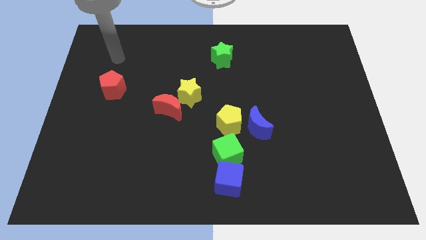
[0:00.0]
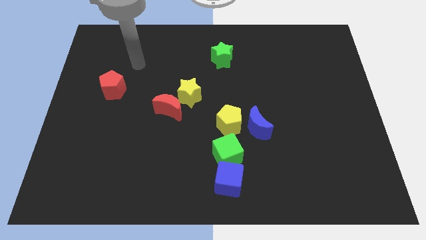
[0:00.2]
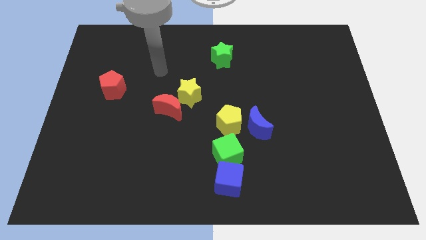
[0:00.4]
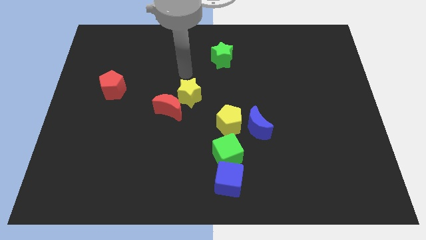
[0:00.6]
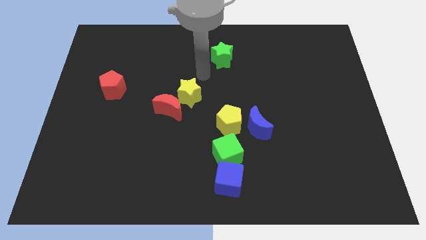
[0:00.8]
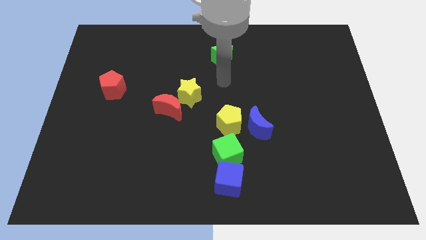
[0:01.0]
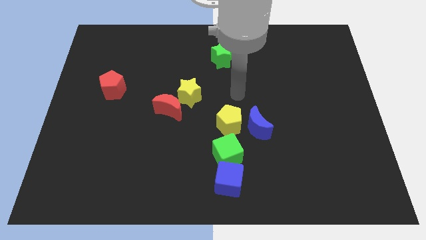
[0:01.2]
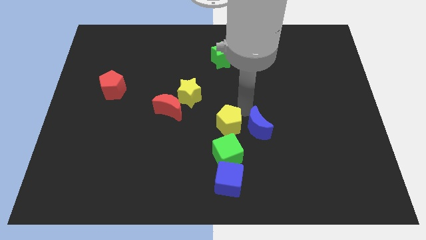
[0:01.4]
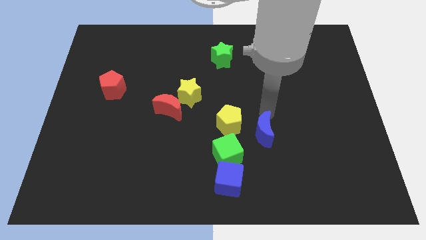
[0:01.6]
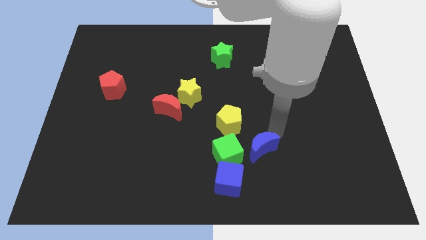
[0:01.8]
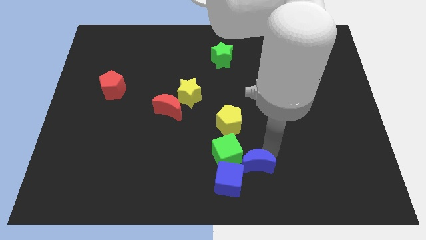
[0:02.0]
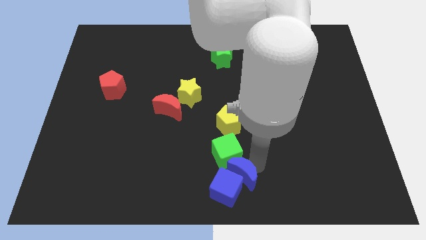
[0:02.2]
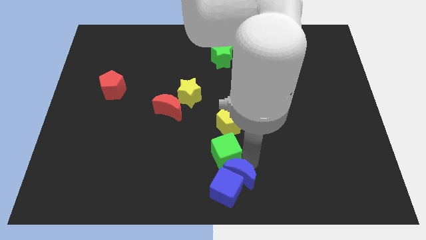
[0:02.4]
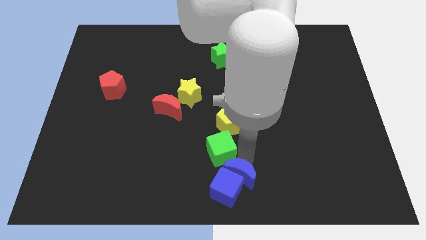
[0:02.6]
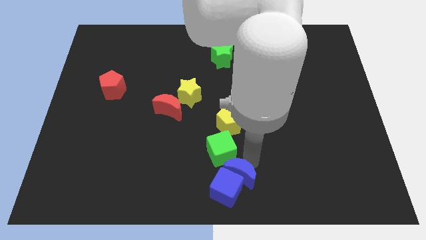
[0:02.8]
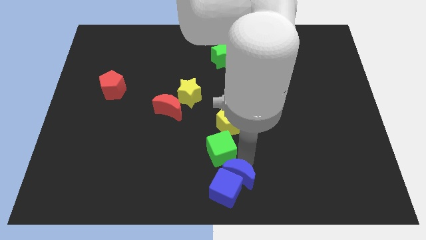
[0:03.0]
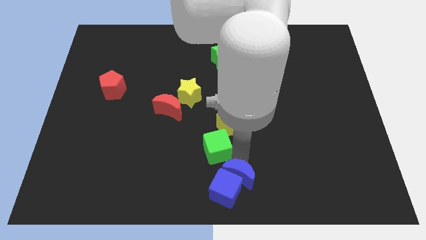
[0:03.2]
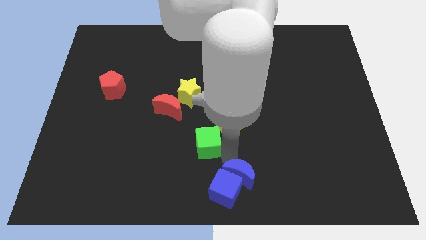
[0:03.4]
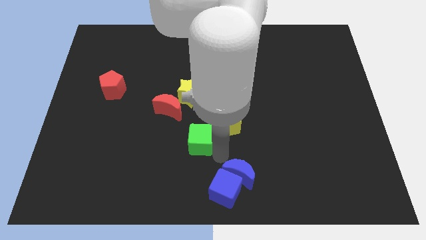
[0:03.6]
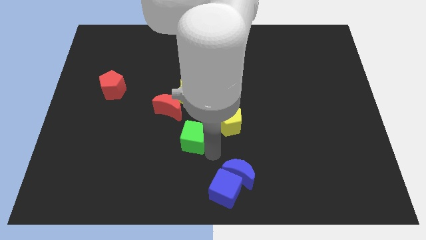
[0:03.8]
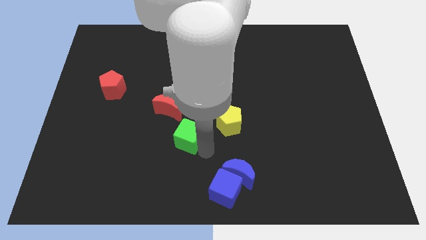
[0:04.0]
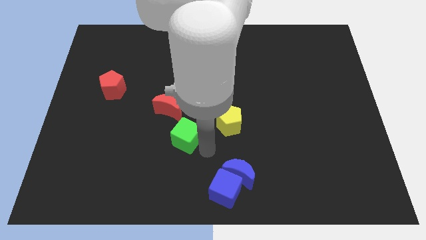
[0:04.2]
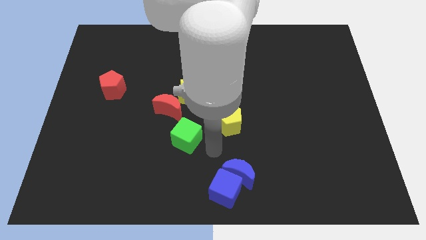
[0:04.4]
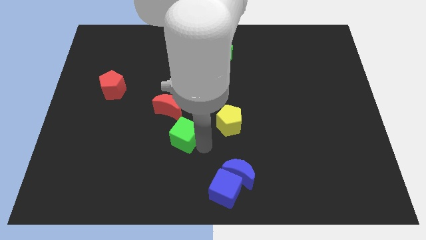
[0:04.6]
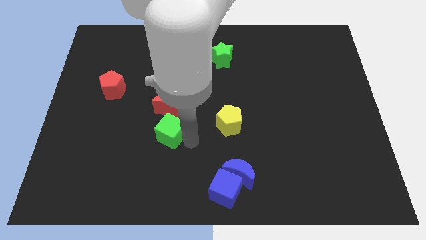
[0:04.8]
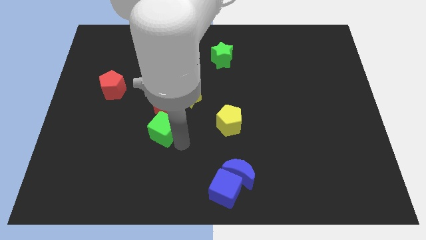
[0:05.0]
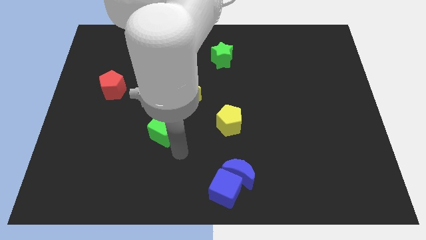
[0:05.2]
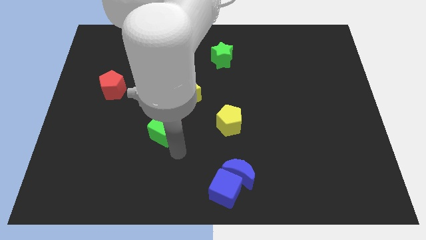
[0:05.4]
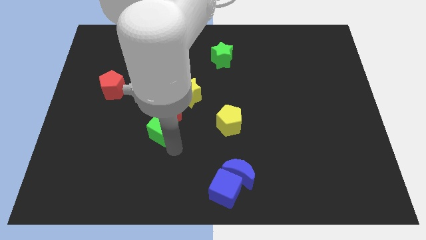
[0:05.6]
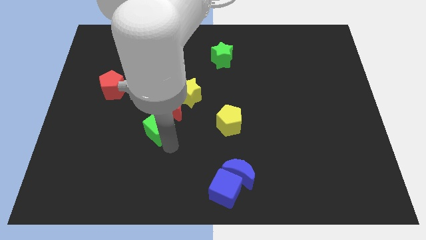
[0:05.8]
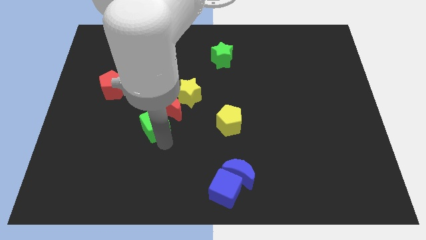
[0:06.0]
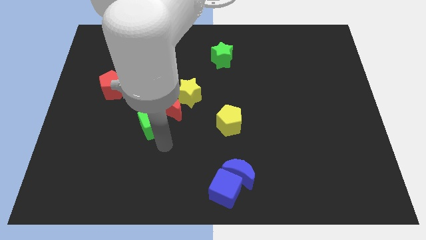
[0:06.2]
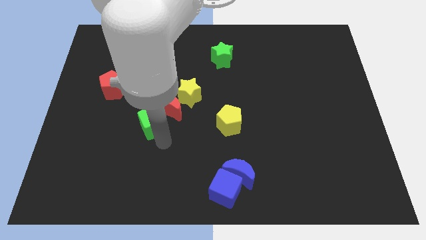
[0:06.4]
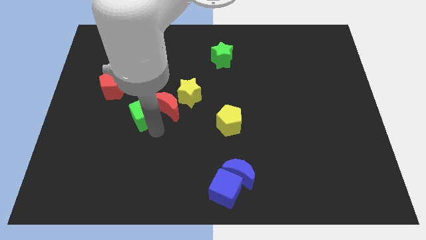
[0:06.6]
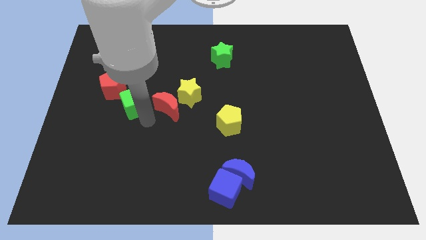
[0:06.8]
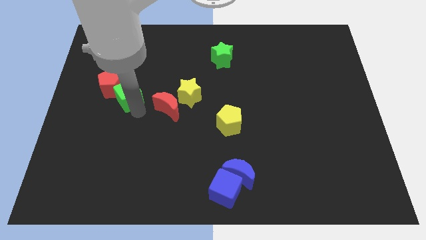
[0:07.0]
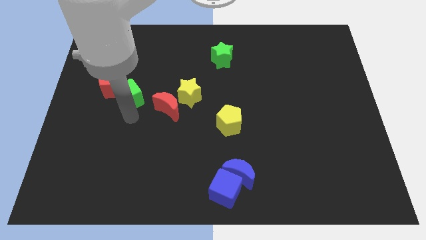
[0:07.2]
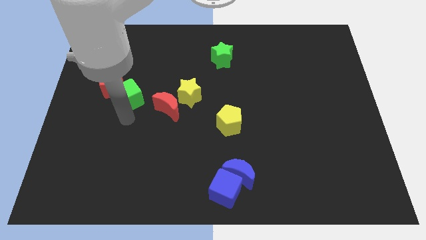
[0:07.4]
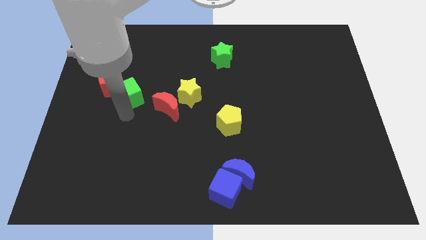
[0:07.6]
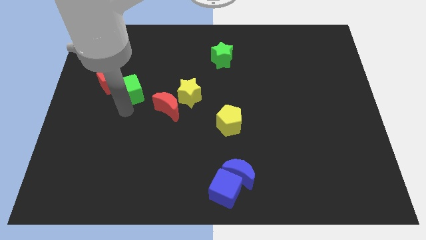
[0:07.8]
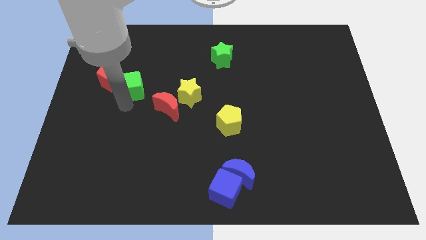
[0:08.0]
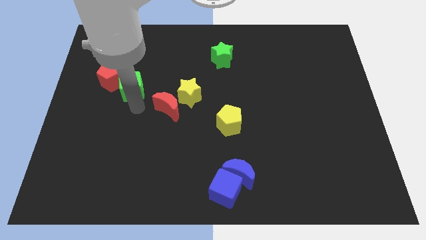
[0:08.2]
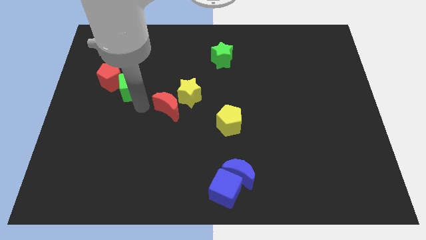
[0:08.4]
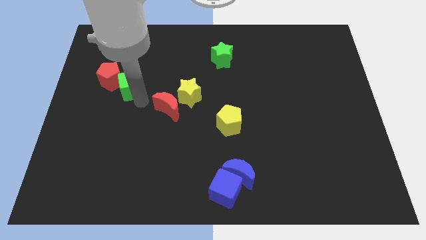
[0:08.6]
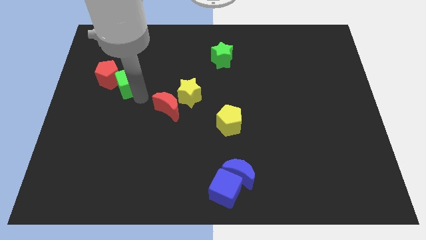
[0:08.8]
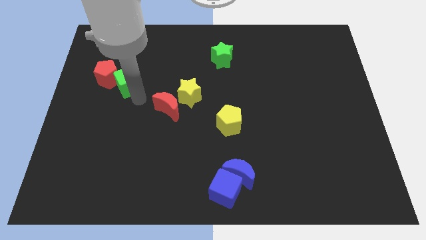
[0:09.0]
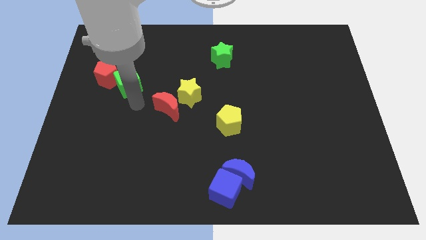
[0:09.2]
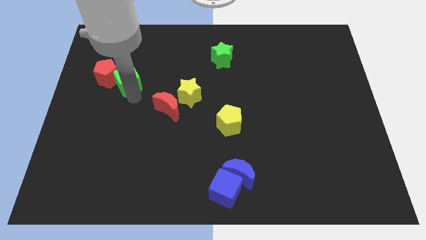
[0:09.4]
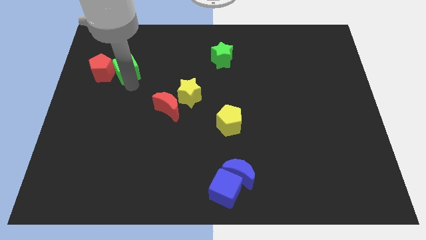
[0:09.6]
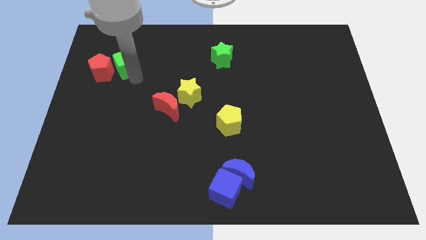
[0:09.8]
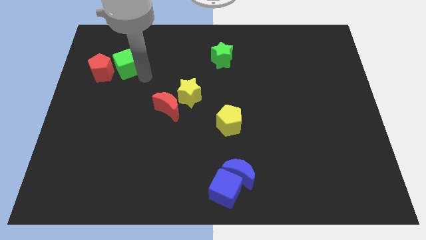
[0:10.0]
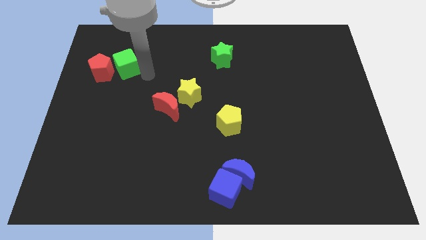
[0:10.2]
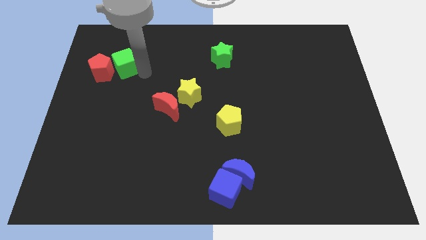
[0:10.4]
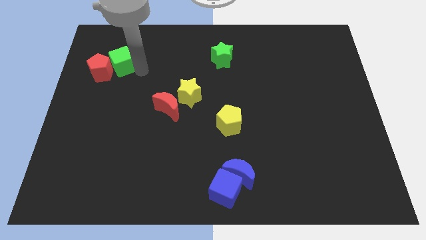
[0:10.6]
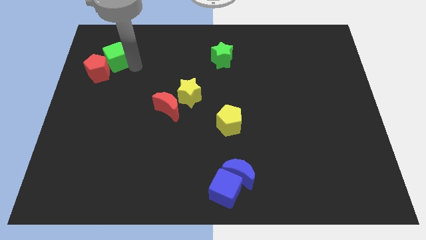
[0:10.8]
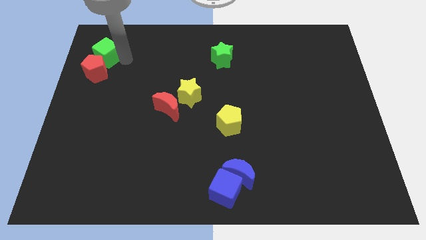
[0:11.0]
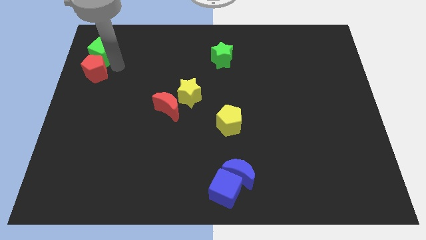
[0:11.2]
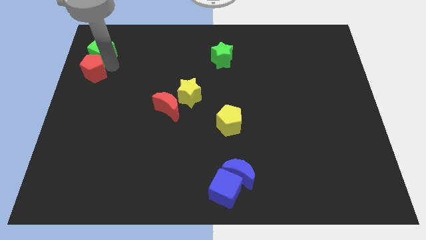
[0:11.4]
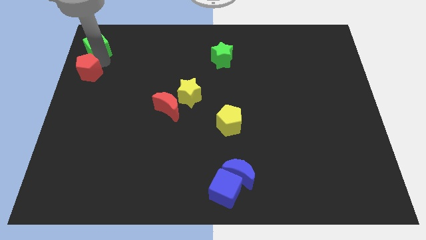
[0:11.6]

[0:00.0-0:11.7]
put the green cube to the top left corner

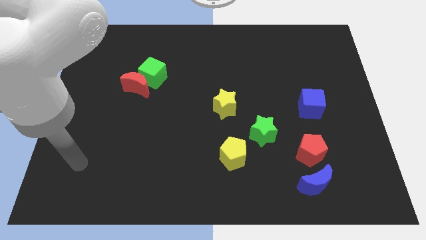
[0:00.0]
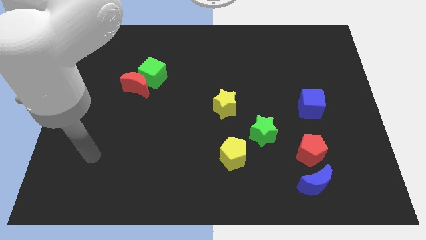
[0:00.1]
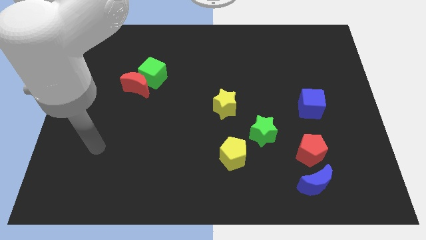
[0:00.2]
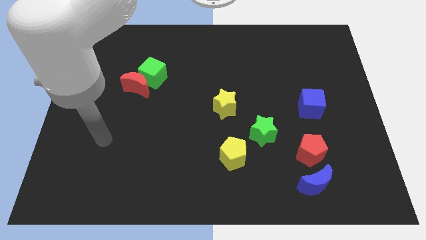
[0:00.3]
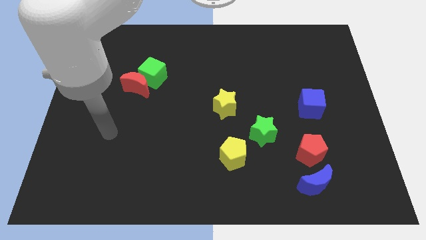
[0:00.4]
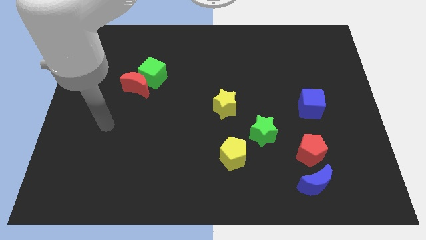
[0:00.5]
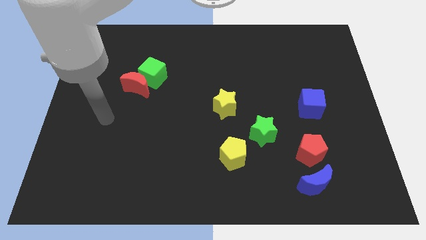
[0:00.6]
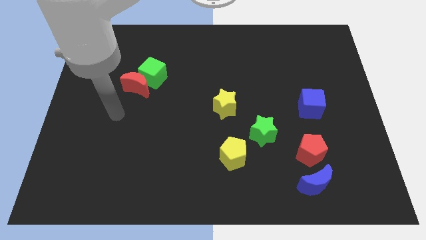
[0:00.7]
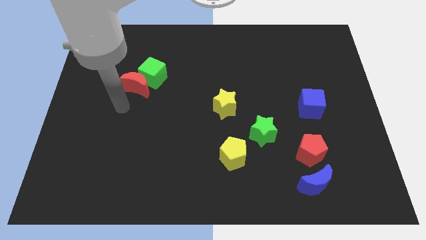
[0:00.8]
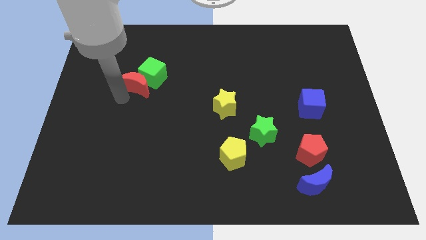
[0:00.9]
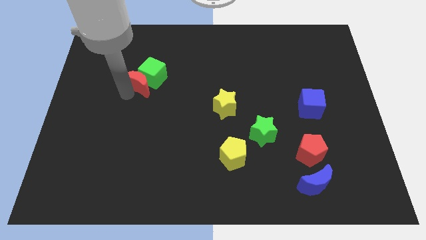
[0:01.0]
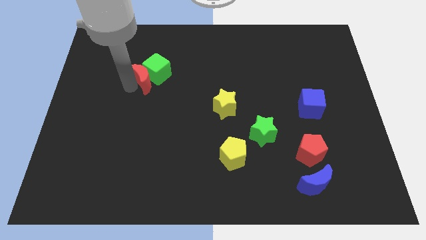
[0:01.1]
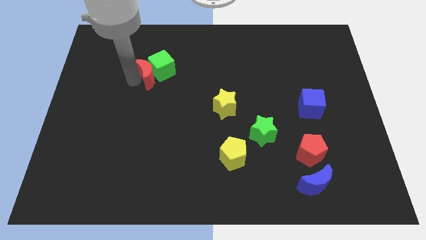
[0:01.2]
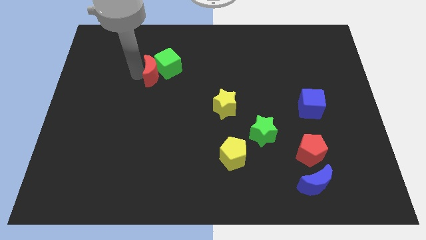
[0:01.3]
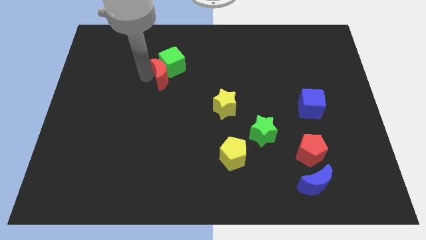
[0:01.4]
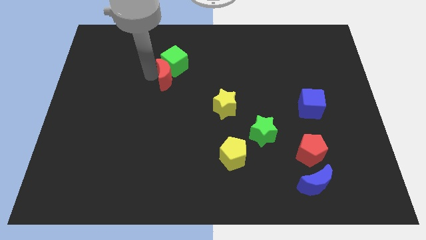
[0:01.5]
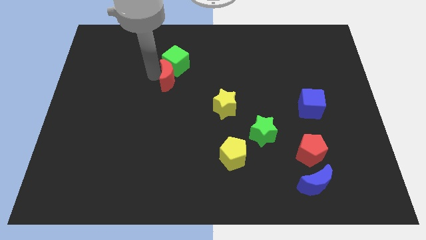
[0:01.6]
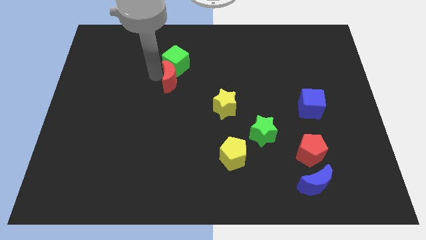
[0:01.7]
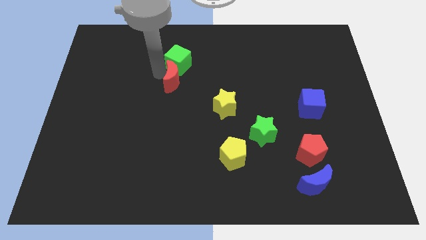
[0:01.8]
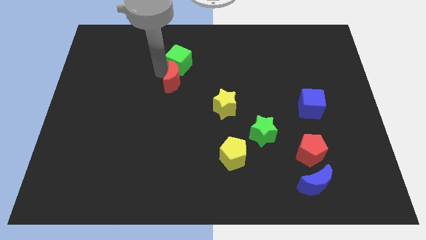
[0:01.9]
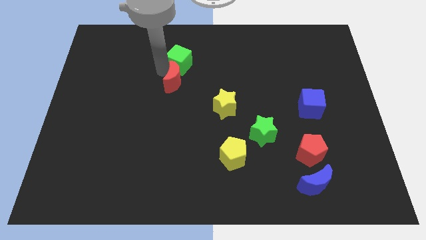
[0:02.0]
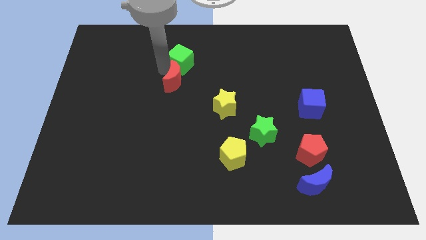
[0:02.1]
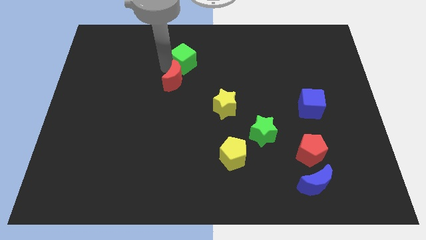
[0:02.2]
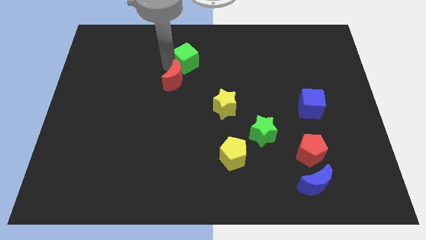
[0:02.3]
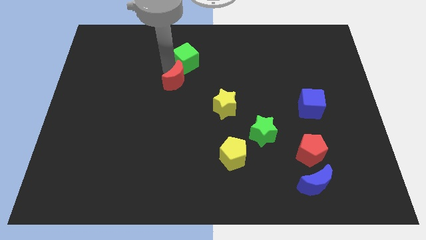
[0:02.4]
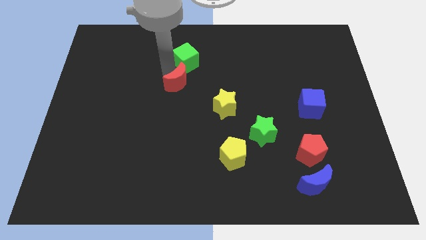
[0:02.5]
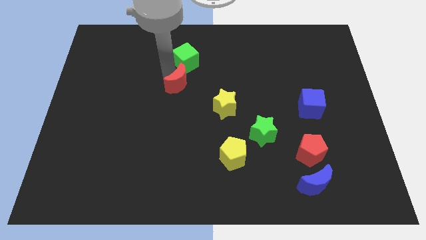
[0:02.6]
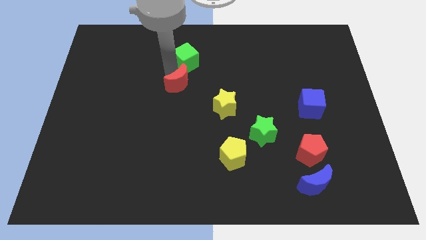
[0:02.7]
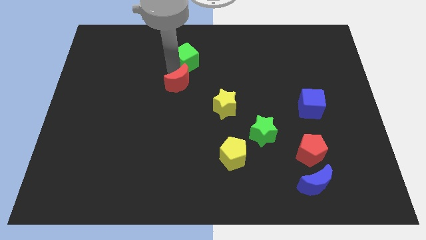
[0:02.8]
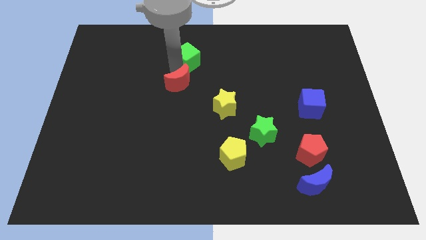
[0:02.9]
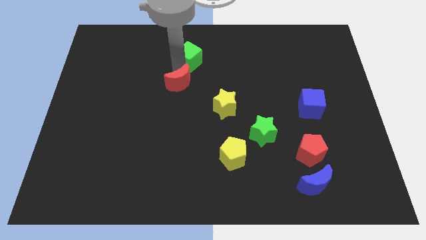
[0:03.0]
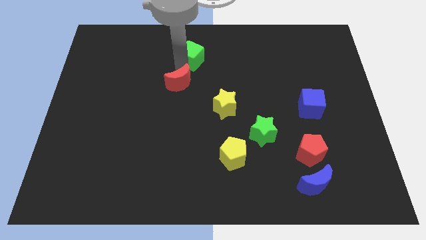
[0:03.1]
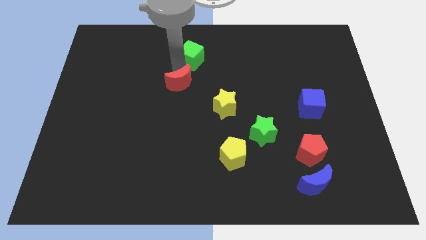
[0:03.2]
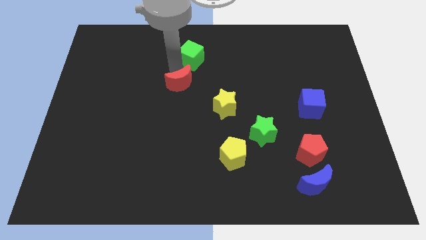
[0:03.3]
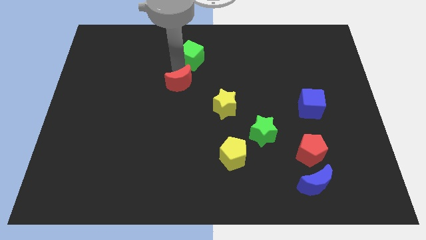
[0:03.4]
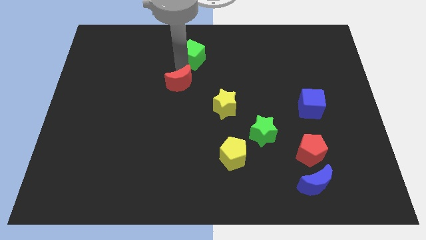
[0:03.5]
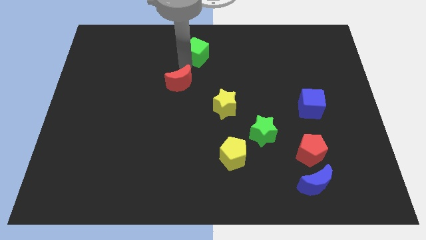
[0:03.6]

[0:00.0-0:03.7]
slide the green cube to the towards your base
